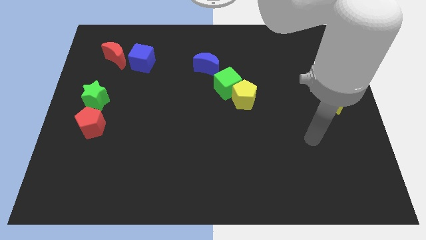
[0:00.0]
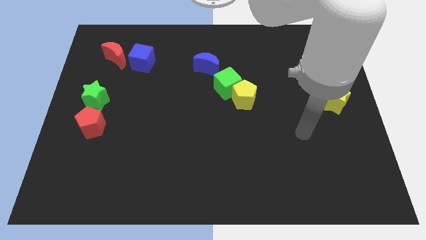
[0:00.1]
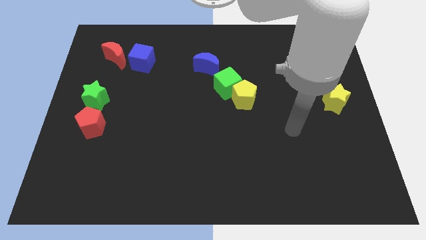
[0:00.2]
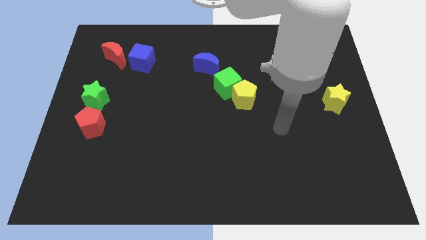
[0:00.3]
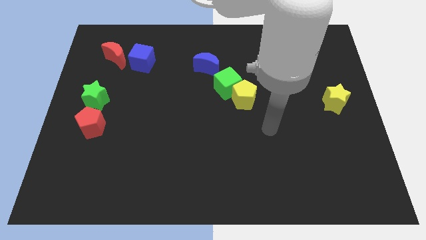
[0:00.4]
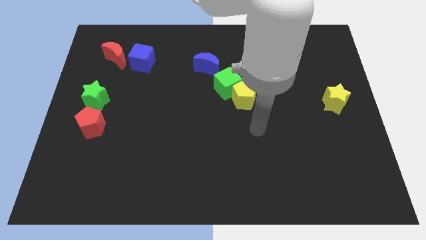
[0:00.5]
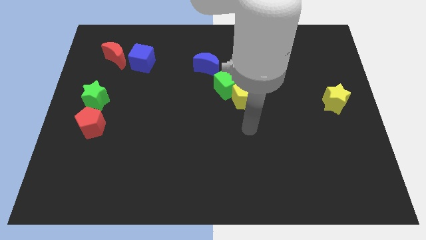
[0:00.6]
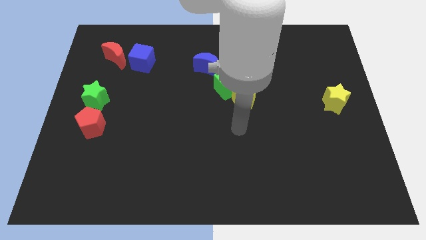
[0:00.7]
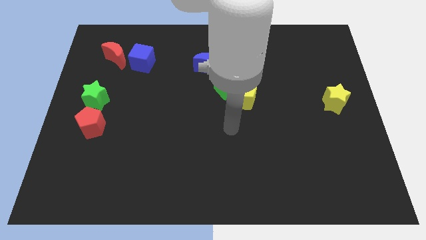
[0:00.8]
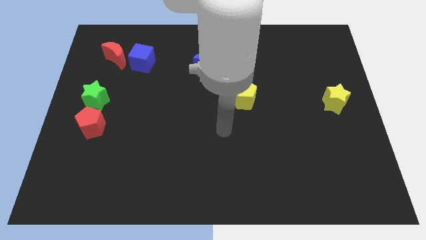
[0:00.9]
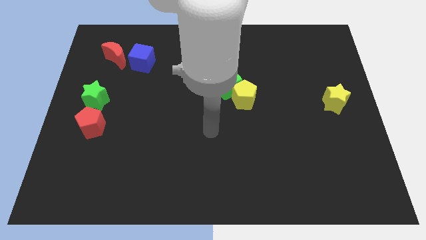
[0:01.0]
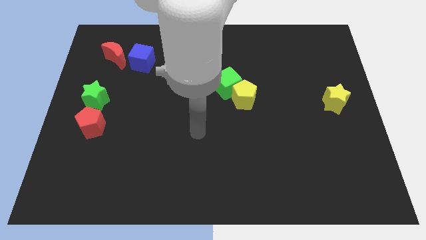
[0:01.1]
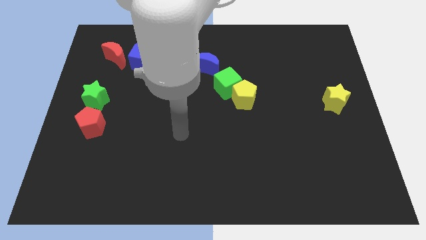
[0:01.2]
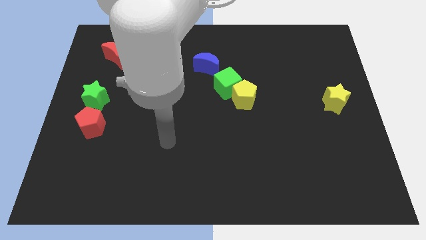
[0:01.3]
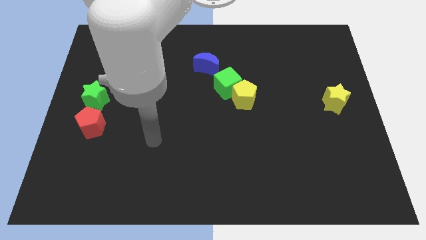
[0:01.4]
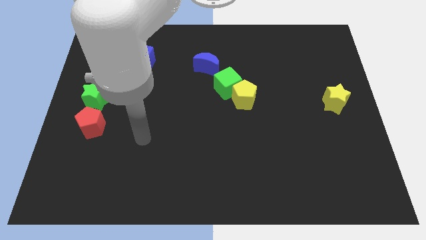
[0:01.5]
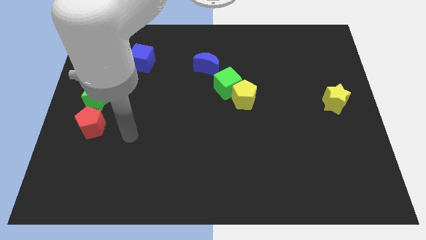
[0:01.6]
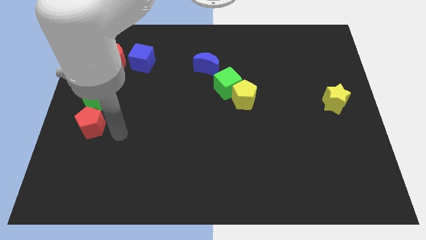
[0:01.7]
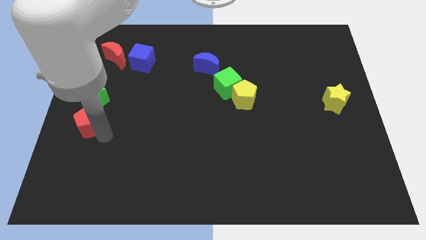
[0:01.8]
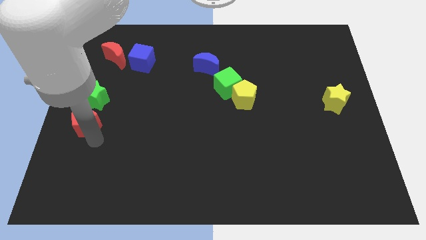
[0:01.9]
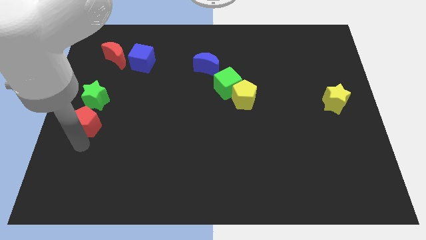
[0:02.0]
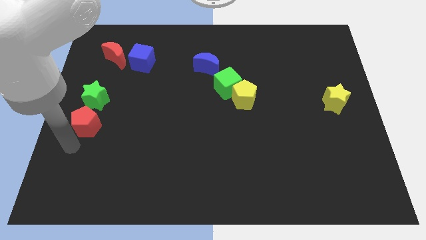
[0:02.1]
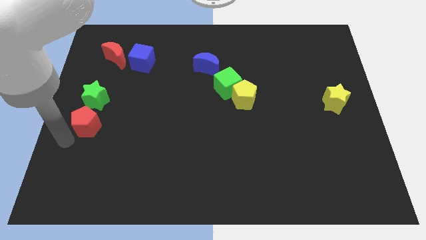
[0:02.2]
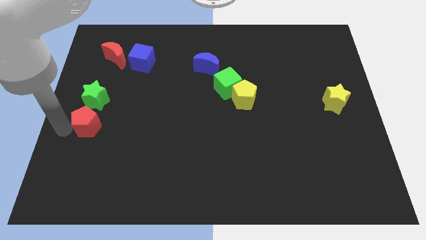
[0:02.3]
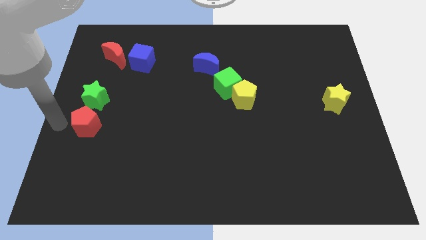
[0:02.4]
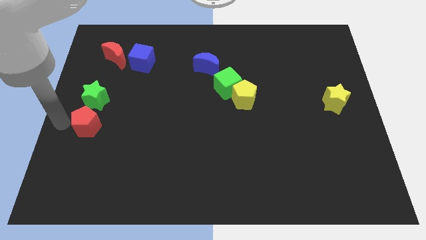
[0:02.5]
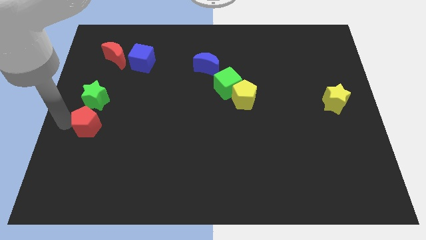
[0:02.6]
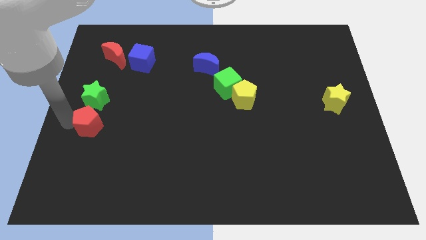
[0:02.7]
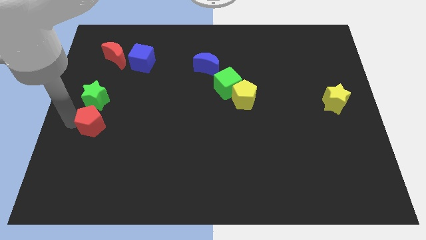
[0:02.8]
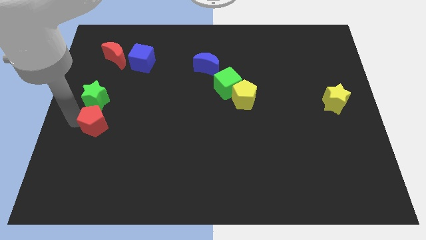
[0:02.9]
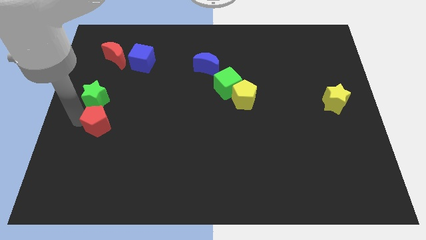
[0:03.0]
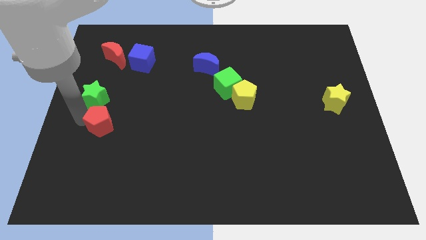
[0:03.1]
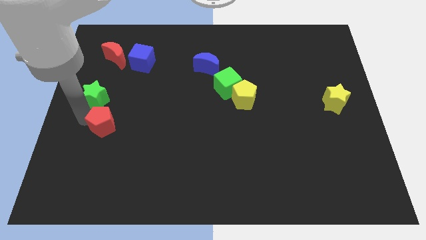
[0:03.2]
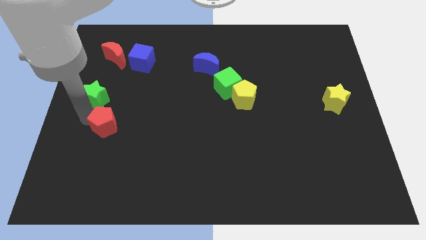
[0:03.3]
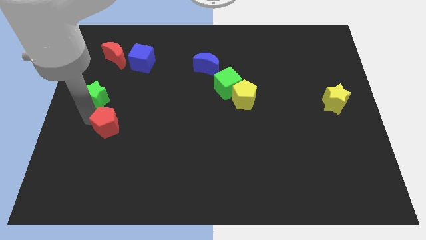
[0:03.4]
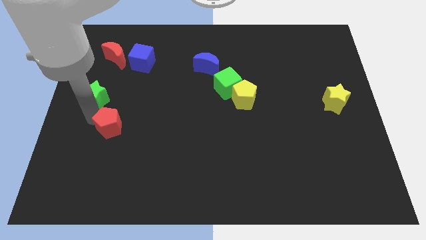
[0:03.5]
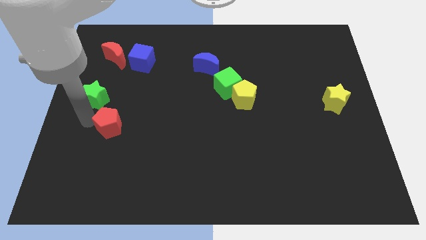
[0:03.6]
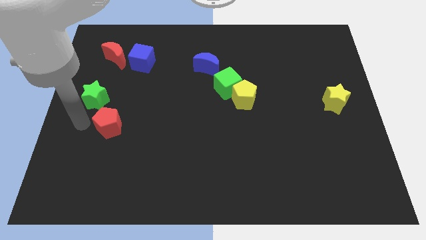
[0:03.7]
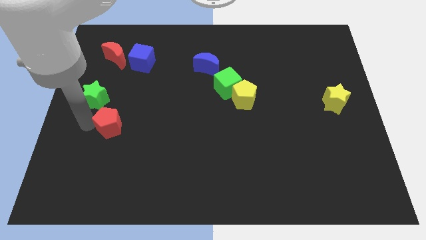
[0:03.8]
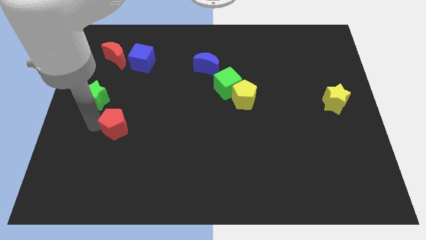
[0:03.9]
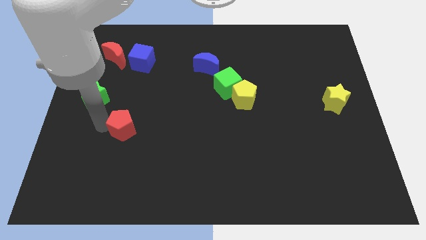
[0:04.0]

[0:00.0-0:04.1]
move the red pentagon to the right a bit

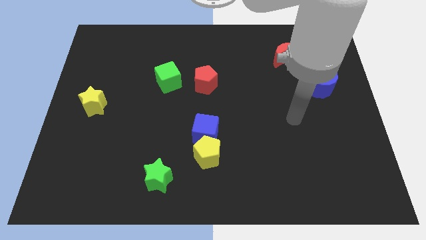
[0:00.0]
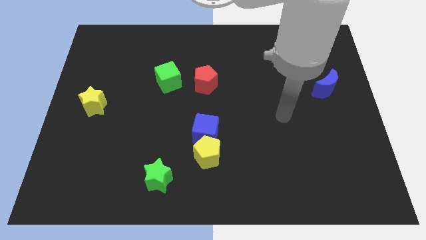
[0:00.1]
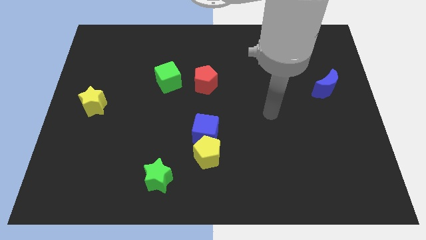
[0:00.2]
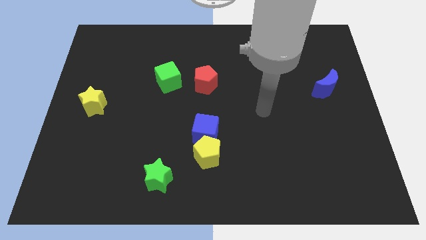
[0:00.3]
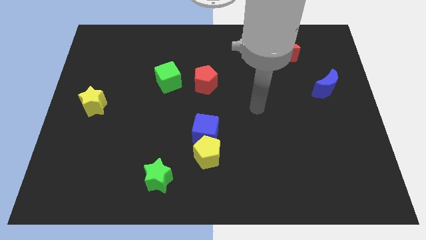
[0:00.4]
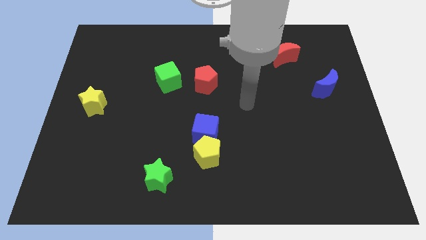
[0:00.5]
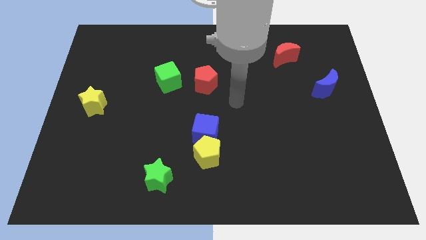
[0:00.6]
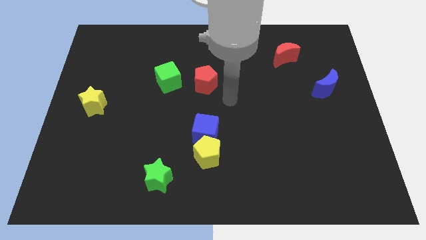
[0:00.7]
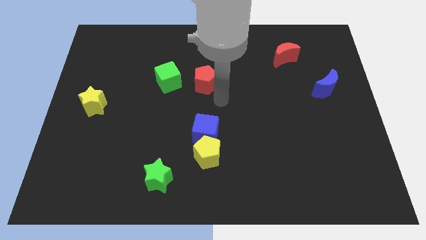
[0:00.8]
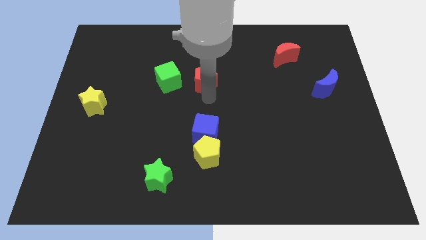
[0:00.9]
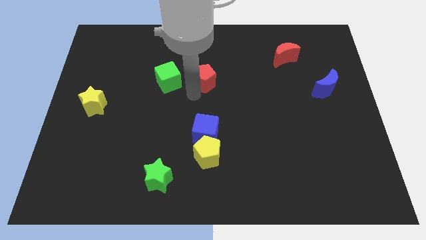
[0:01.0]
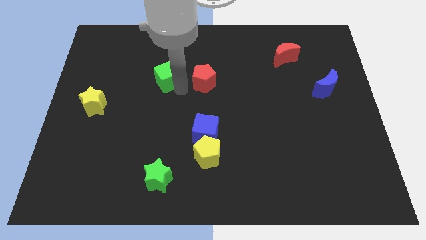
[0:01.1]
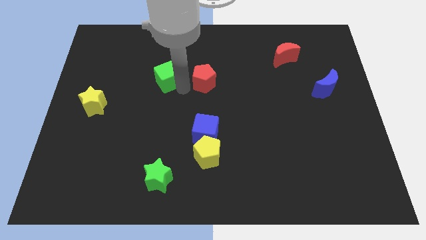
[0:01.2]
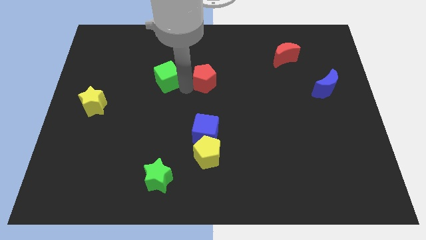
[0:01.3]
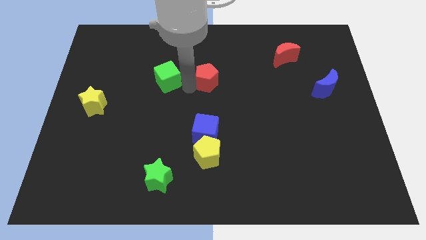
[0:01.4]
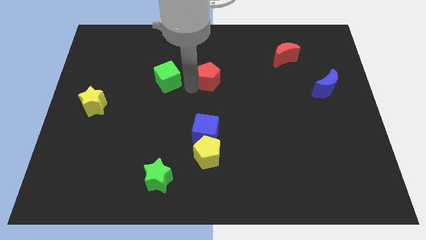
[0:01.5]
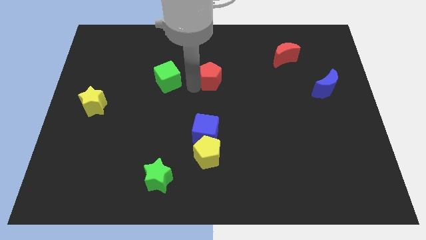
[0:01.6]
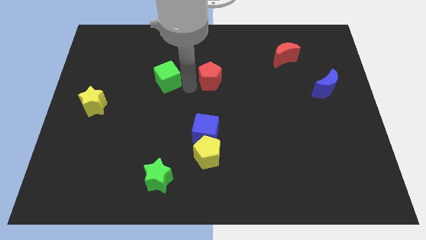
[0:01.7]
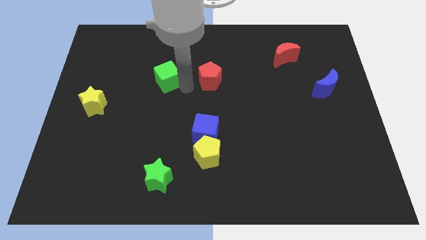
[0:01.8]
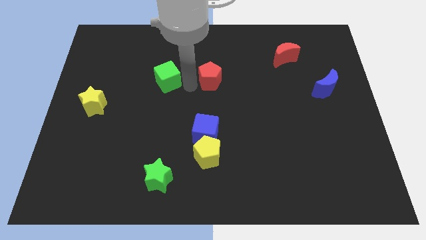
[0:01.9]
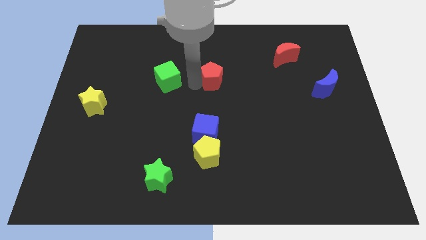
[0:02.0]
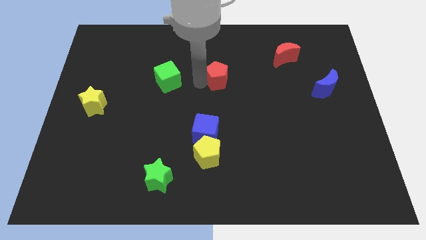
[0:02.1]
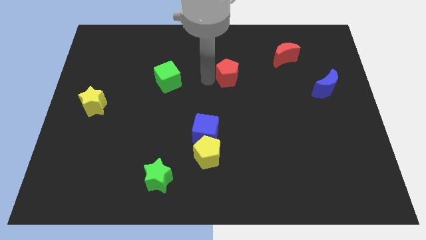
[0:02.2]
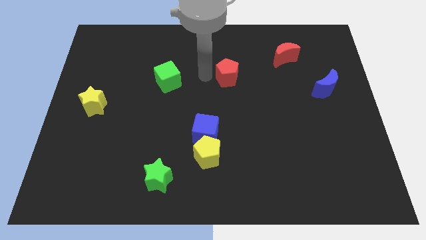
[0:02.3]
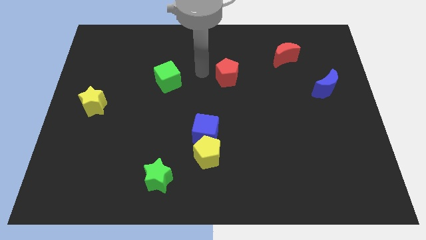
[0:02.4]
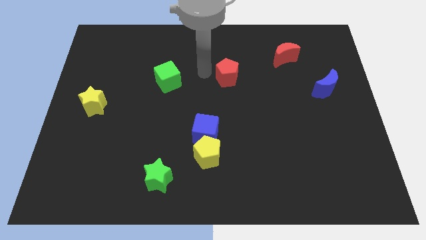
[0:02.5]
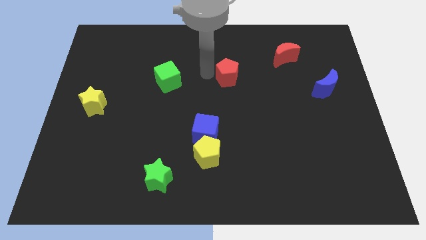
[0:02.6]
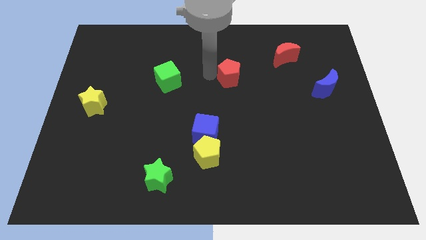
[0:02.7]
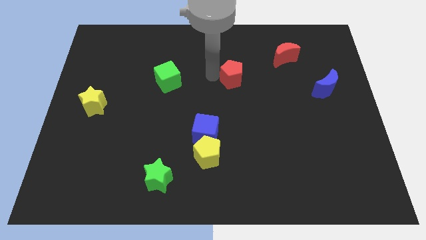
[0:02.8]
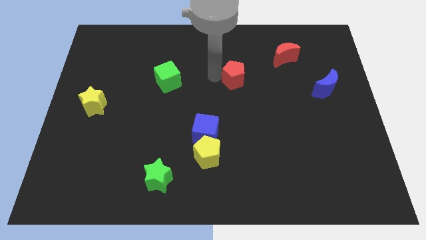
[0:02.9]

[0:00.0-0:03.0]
slightly push the red pentagon to the right

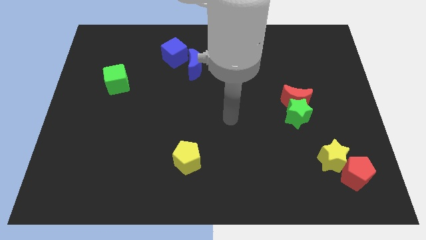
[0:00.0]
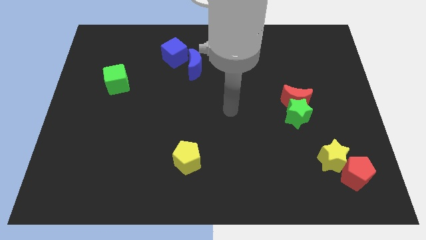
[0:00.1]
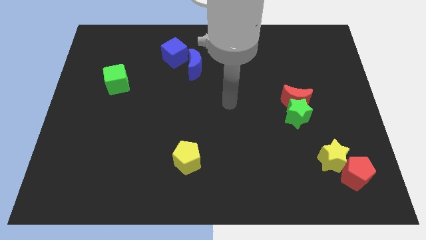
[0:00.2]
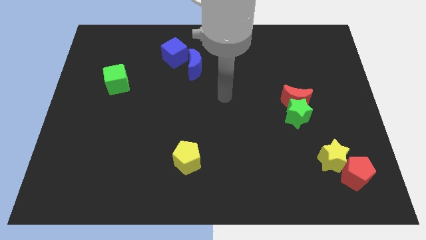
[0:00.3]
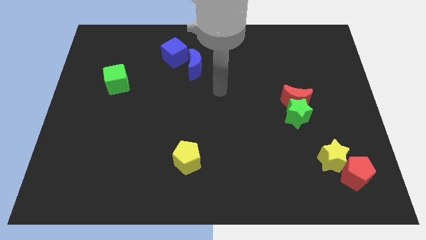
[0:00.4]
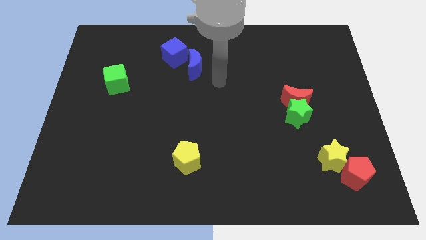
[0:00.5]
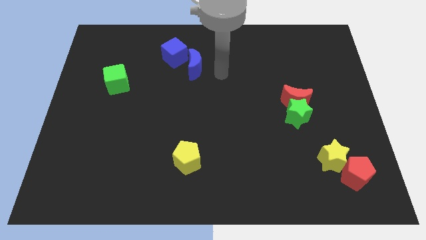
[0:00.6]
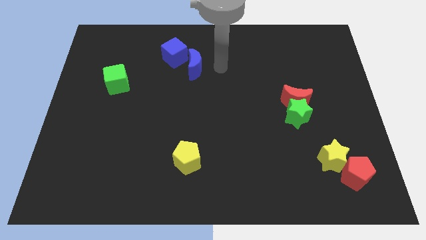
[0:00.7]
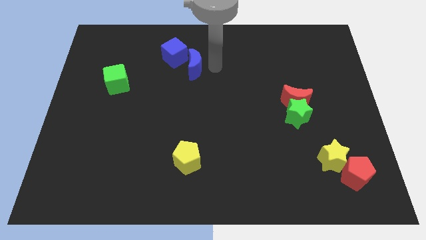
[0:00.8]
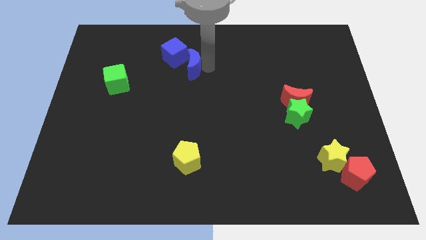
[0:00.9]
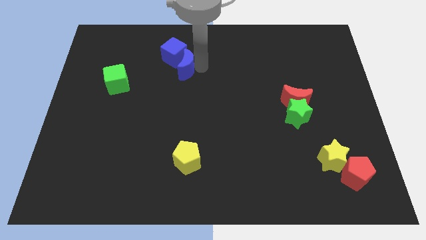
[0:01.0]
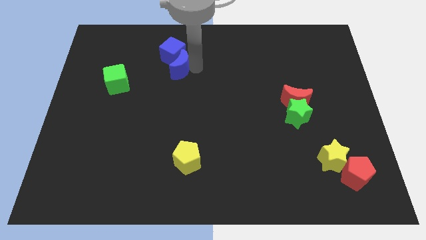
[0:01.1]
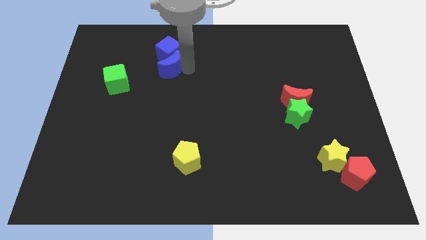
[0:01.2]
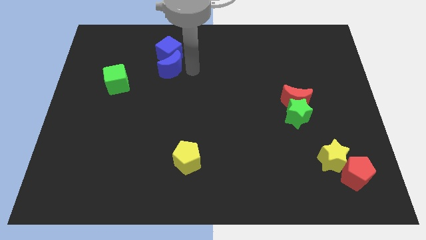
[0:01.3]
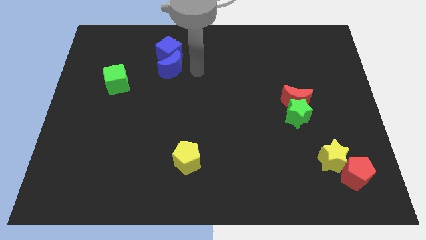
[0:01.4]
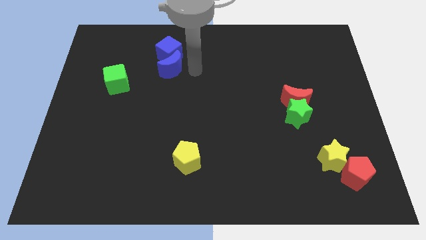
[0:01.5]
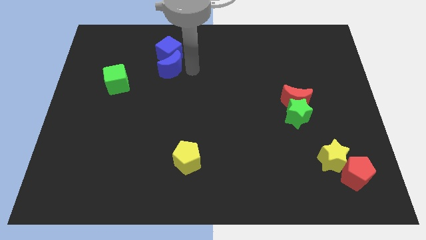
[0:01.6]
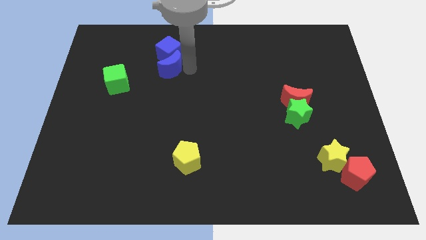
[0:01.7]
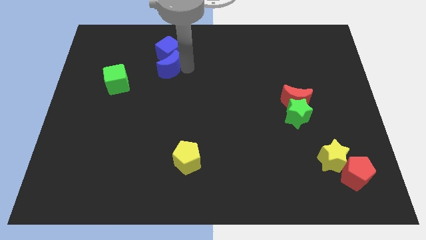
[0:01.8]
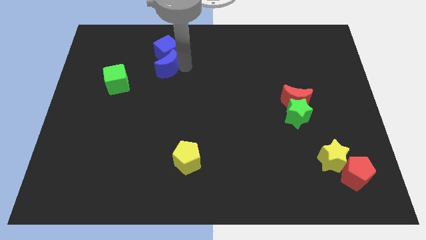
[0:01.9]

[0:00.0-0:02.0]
slightly slide the blue moon to the left
